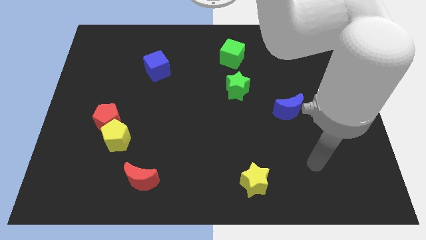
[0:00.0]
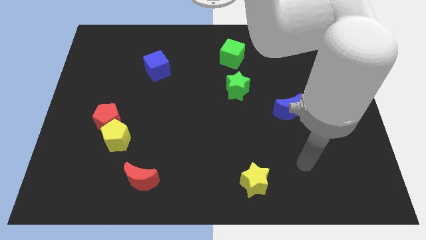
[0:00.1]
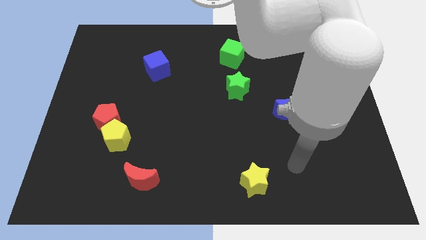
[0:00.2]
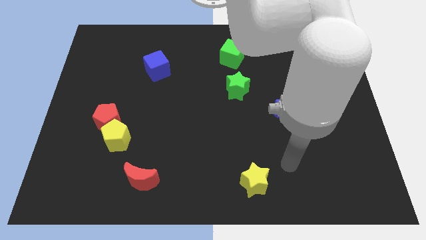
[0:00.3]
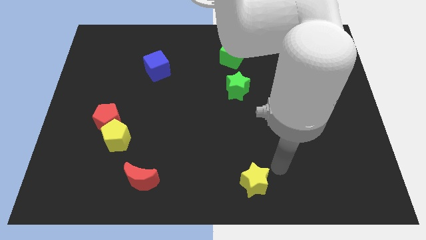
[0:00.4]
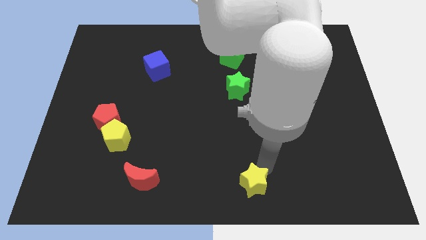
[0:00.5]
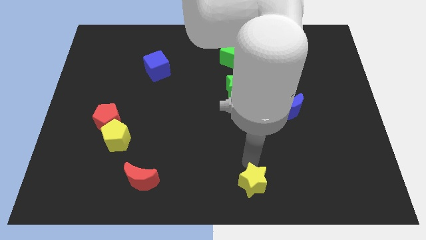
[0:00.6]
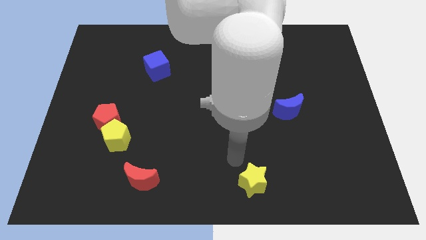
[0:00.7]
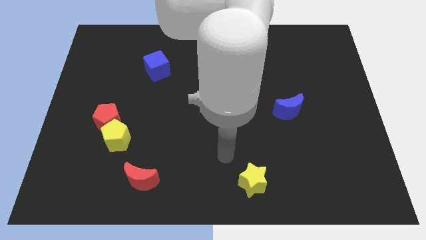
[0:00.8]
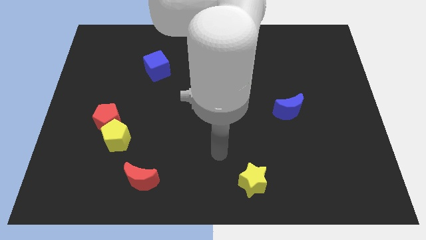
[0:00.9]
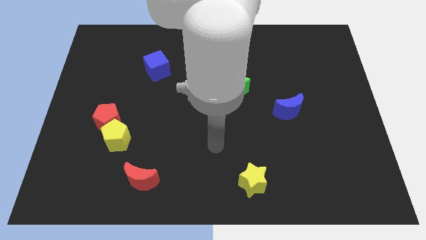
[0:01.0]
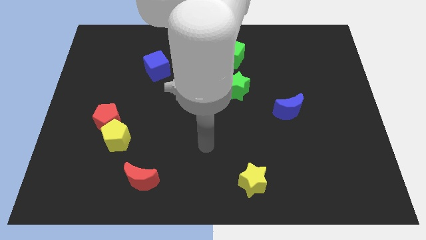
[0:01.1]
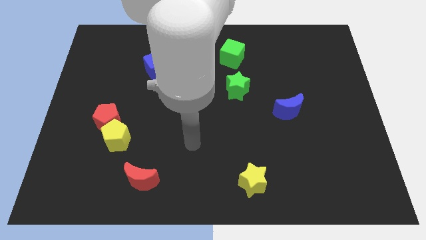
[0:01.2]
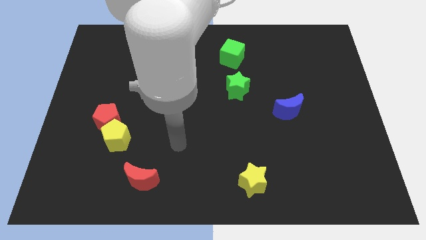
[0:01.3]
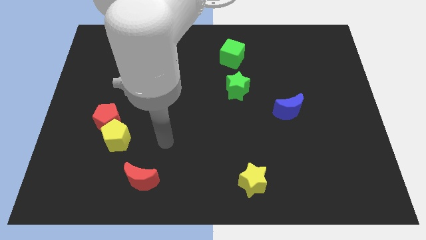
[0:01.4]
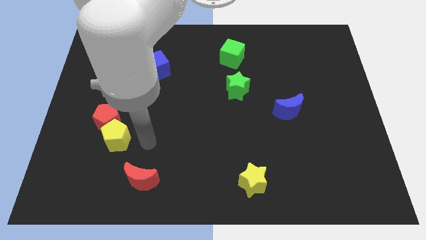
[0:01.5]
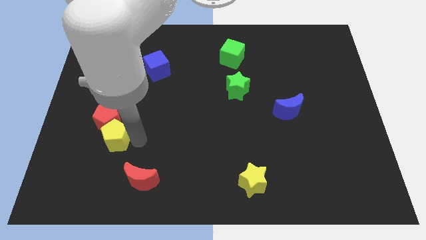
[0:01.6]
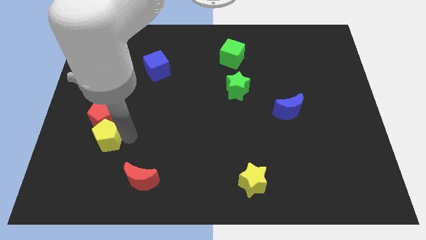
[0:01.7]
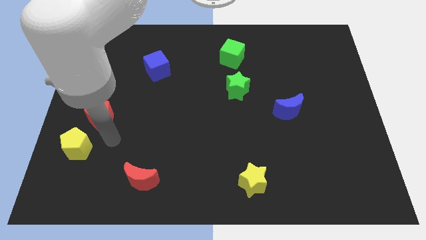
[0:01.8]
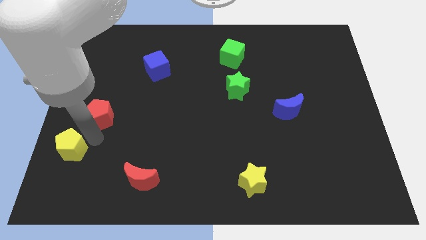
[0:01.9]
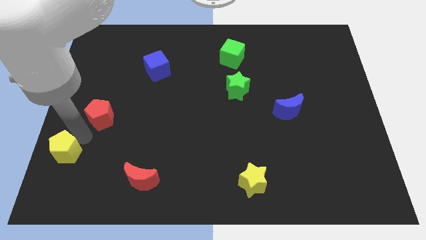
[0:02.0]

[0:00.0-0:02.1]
move the red pentagon away from the yellow pentagon

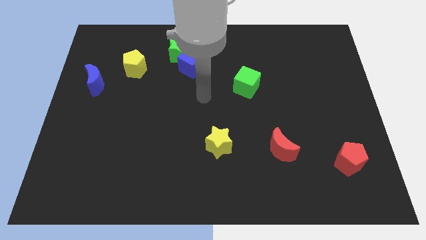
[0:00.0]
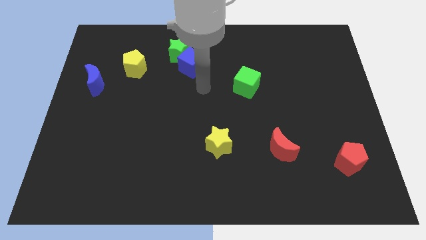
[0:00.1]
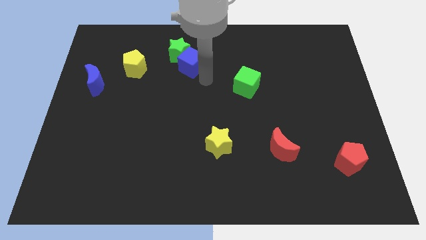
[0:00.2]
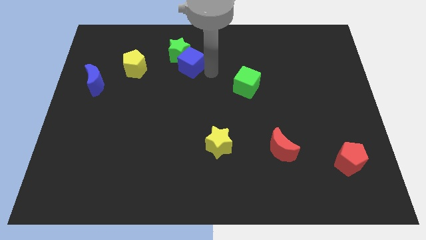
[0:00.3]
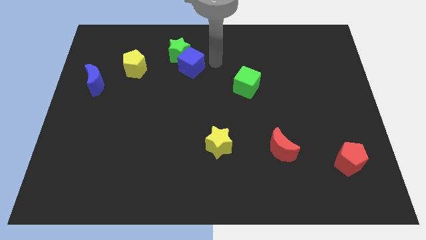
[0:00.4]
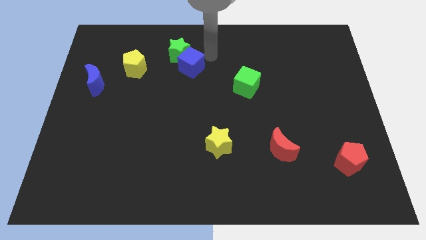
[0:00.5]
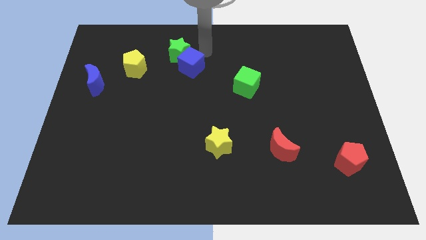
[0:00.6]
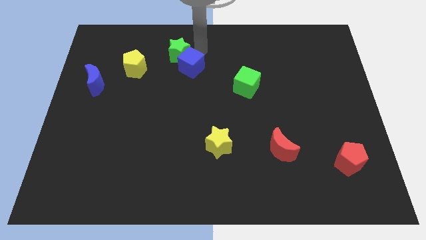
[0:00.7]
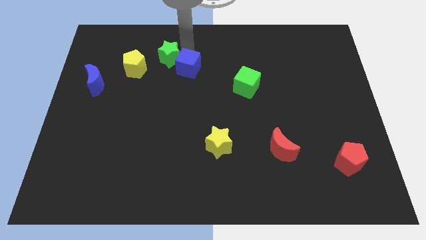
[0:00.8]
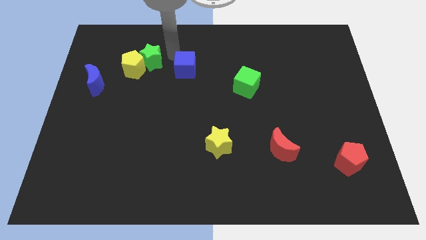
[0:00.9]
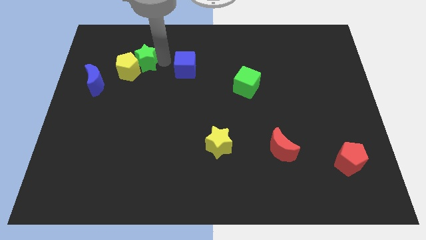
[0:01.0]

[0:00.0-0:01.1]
move the blue cube away from the green star

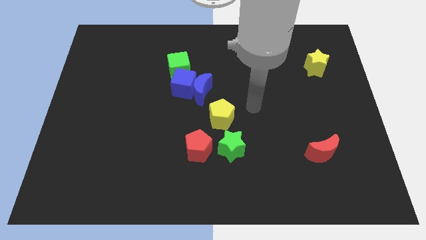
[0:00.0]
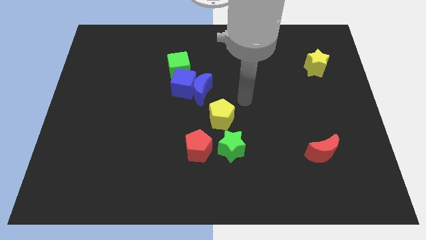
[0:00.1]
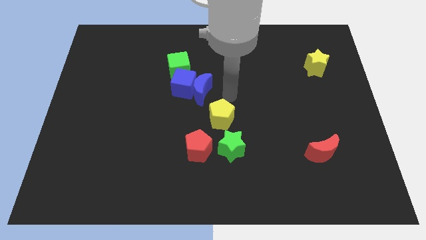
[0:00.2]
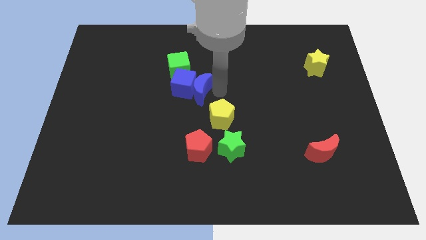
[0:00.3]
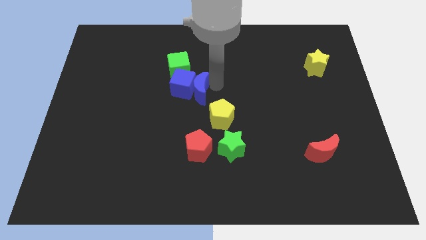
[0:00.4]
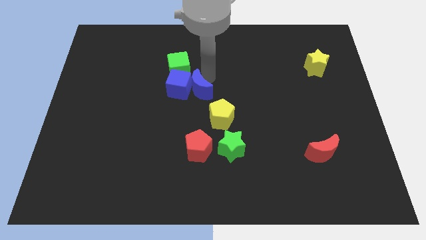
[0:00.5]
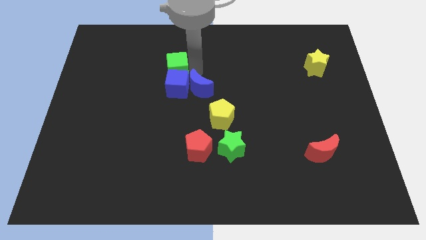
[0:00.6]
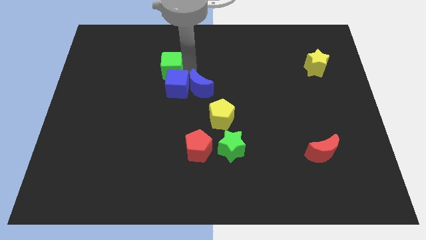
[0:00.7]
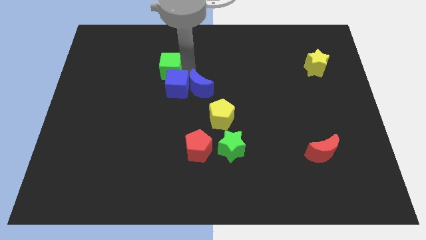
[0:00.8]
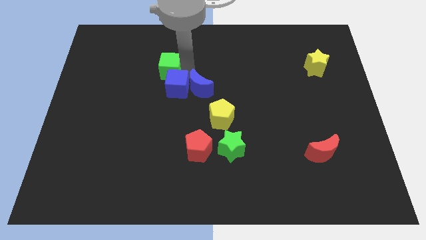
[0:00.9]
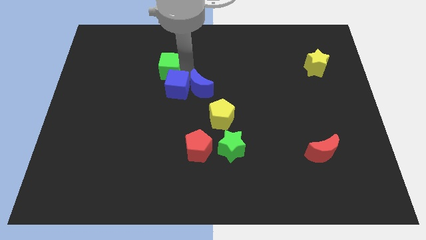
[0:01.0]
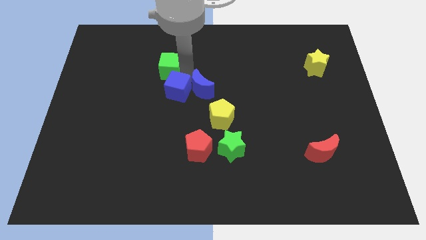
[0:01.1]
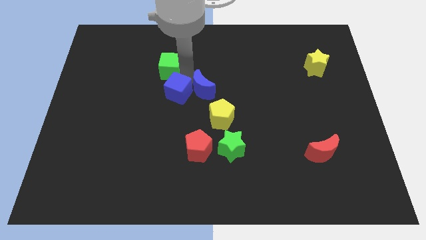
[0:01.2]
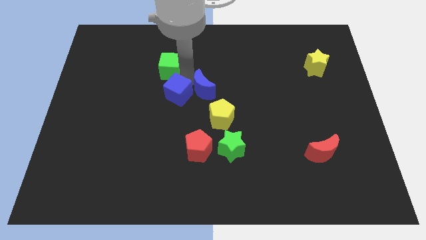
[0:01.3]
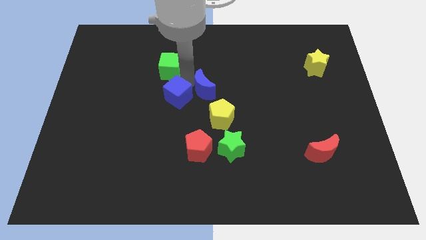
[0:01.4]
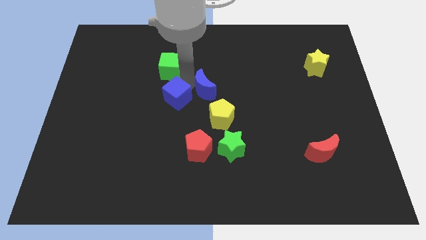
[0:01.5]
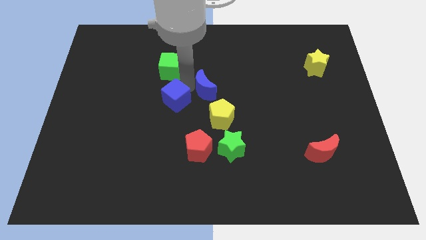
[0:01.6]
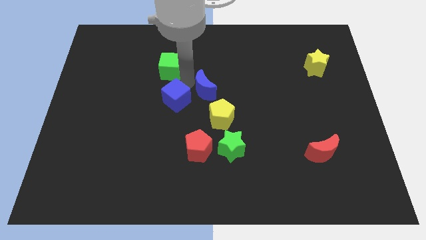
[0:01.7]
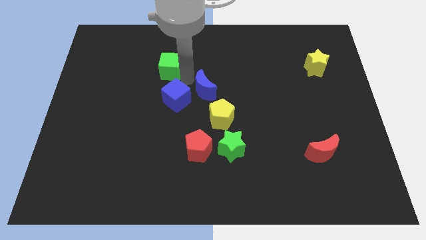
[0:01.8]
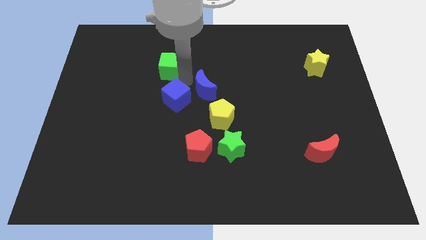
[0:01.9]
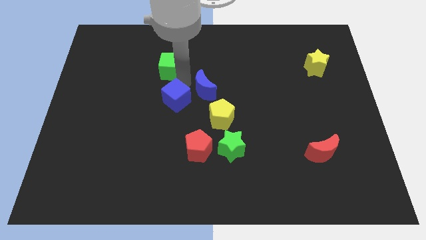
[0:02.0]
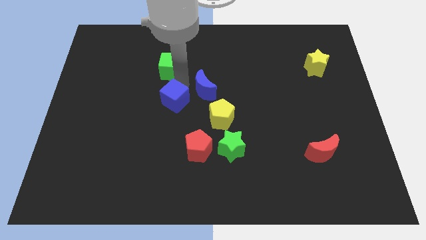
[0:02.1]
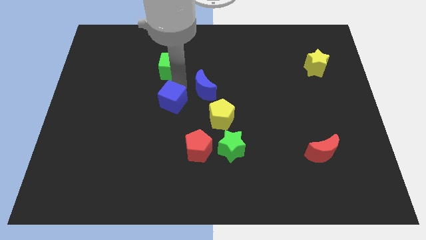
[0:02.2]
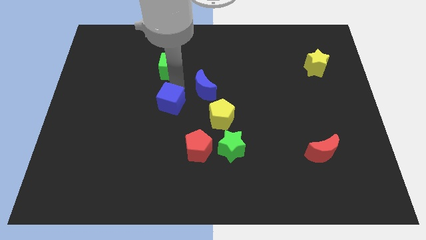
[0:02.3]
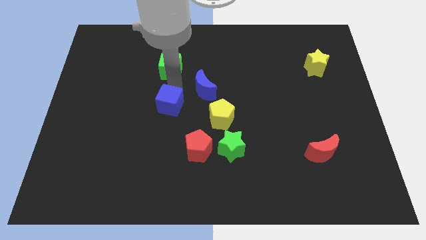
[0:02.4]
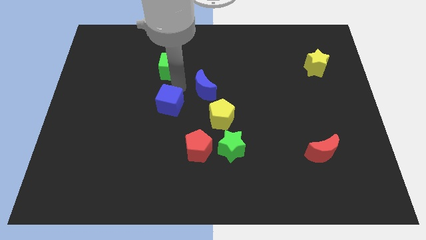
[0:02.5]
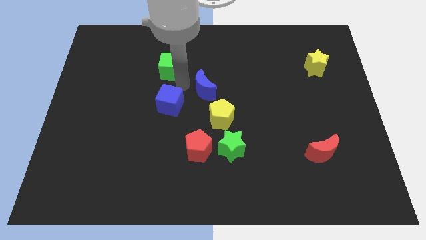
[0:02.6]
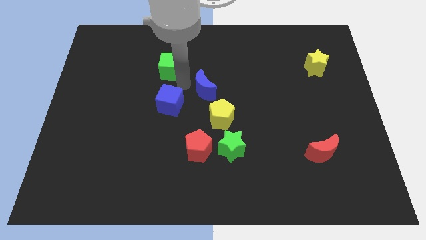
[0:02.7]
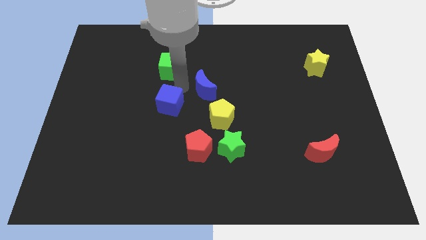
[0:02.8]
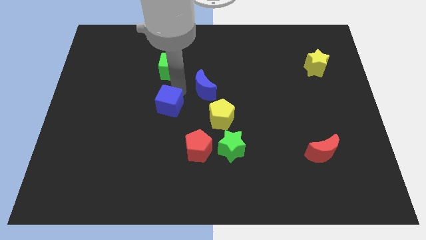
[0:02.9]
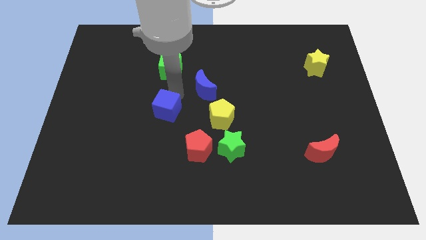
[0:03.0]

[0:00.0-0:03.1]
pull the blue cube apart from the blue moon and green cube

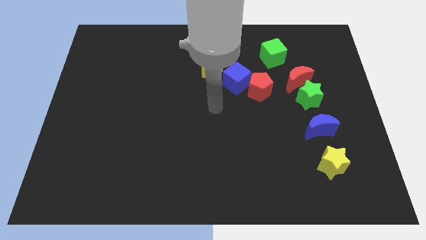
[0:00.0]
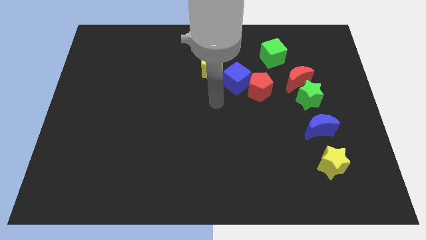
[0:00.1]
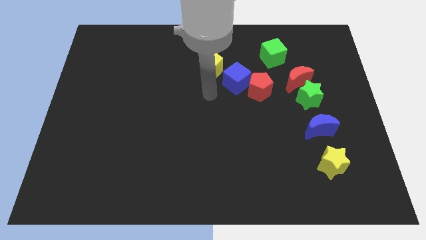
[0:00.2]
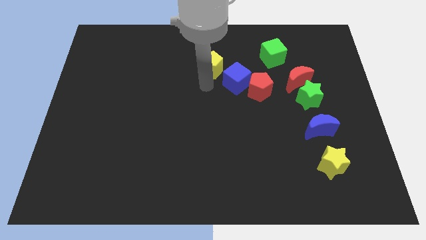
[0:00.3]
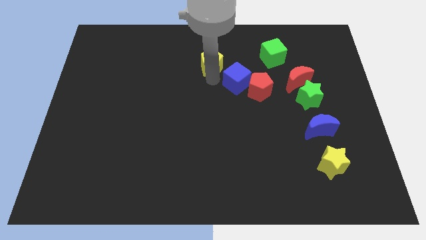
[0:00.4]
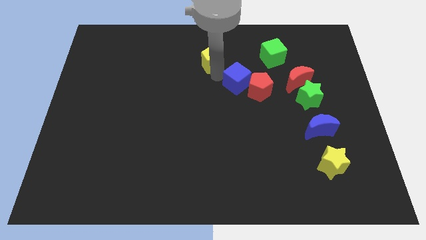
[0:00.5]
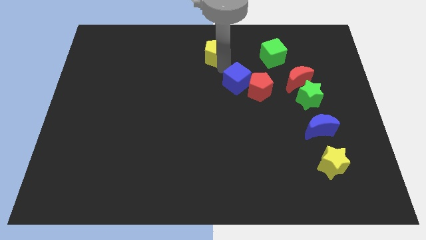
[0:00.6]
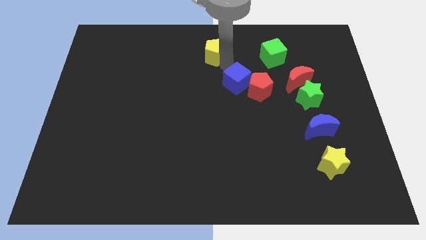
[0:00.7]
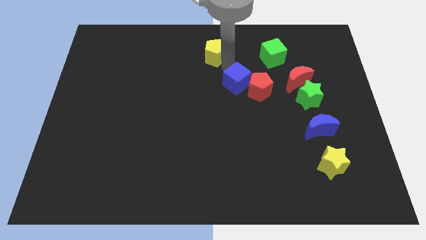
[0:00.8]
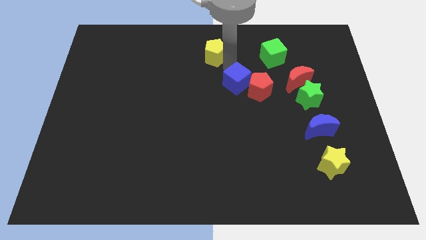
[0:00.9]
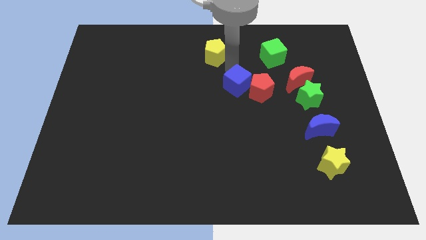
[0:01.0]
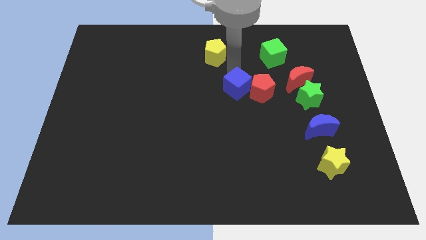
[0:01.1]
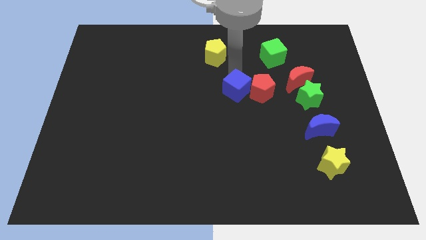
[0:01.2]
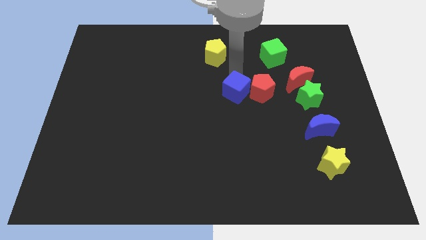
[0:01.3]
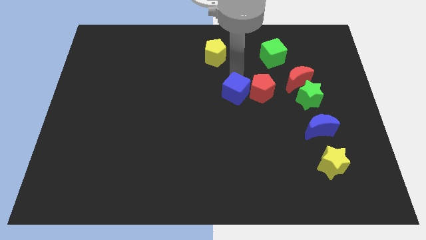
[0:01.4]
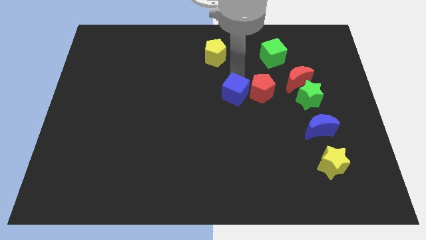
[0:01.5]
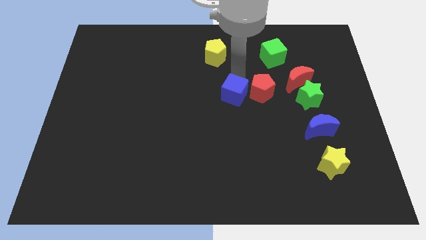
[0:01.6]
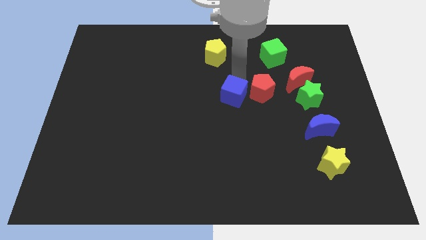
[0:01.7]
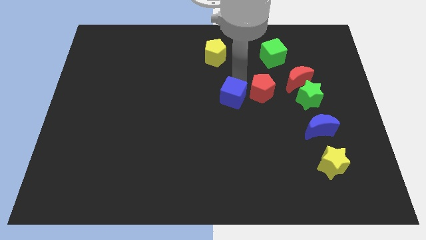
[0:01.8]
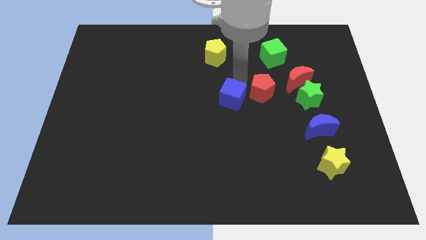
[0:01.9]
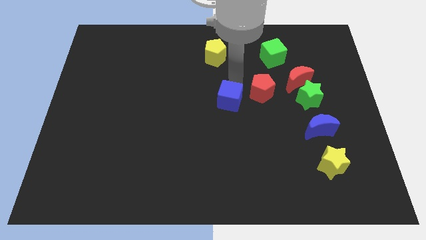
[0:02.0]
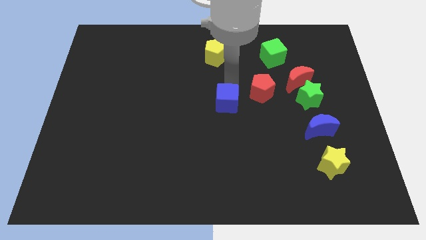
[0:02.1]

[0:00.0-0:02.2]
move the blue cube away from the red pentagon and yellow pentagon

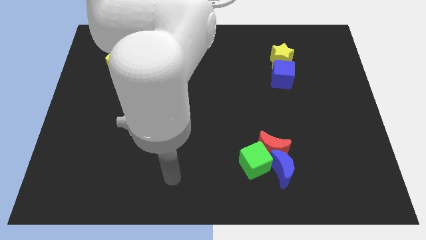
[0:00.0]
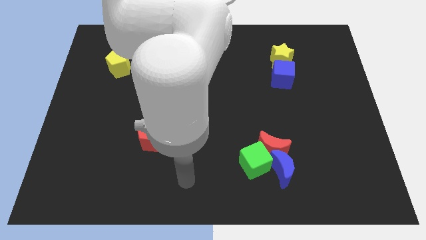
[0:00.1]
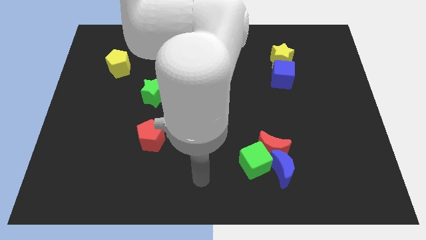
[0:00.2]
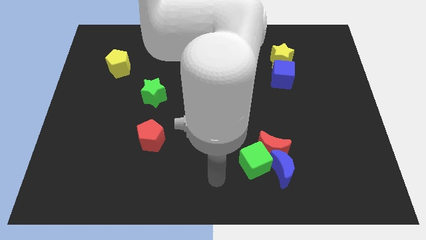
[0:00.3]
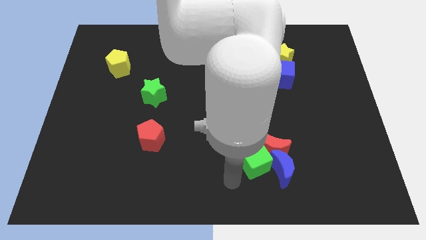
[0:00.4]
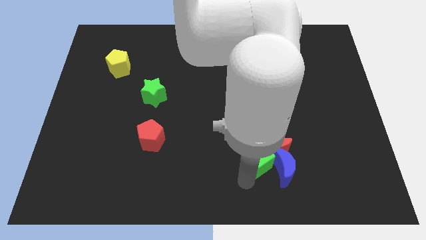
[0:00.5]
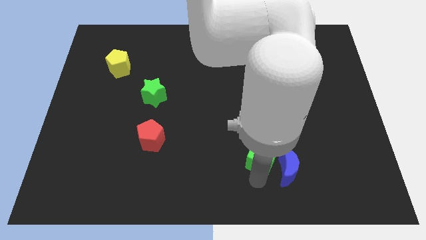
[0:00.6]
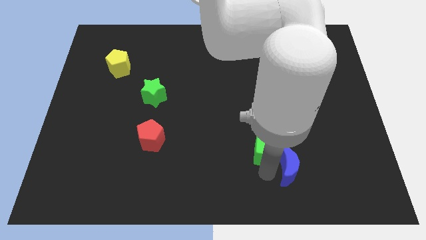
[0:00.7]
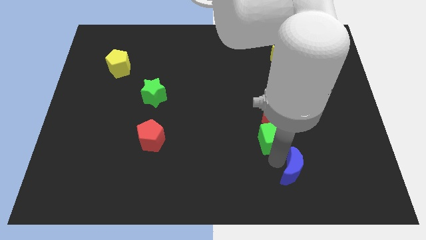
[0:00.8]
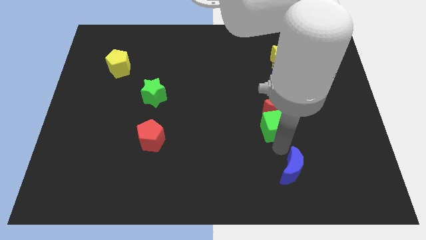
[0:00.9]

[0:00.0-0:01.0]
move the red moon away from the green cube and blue moon
